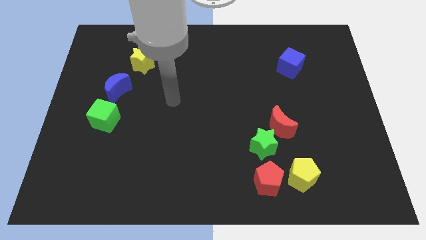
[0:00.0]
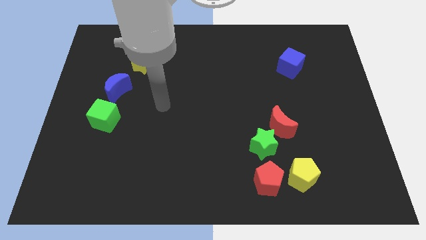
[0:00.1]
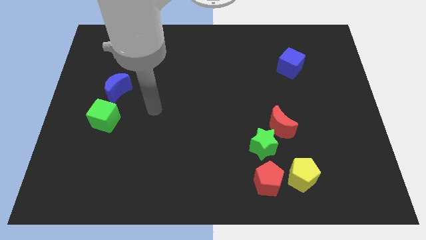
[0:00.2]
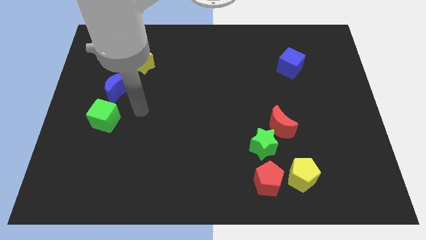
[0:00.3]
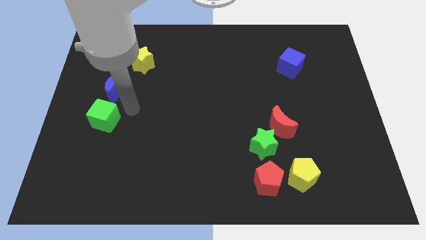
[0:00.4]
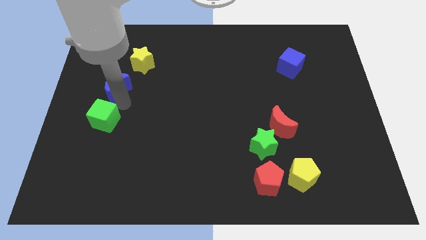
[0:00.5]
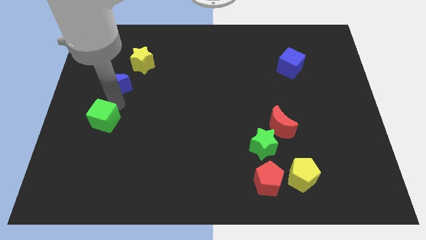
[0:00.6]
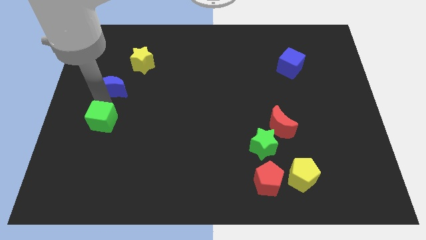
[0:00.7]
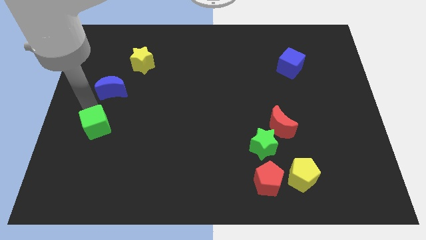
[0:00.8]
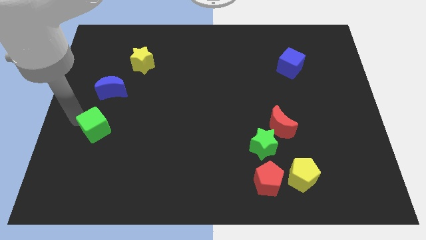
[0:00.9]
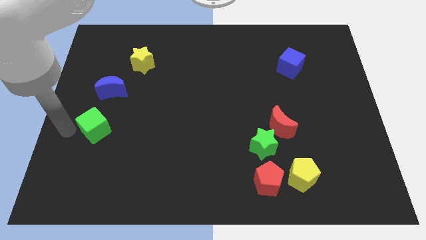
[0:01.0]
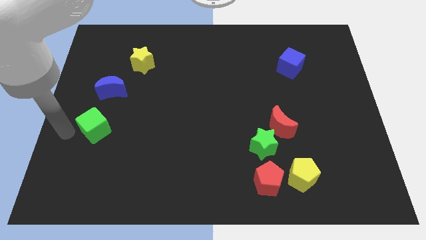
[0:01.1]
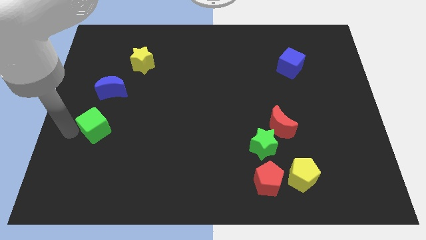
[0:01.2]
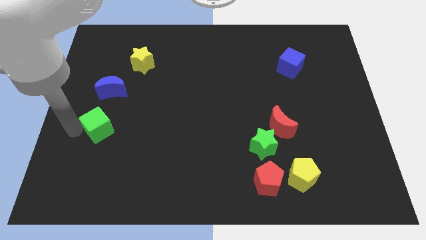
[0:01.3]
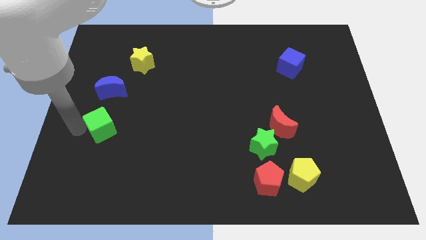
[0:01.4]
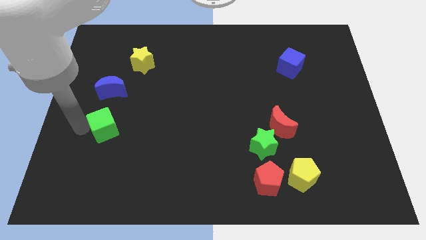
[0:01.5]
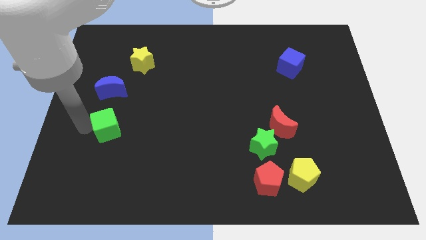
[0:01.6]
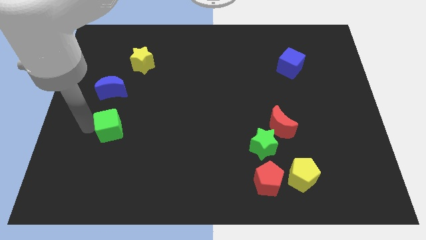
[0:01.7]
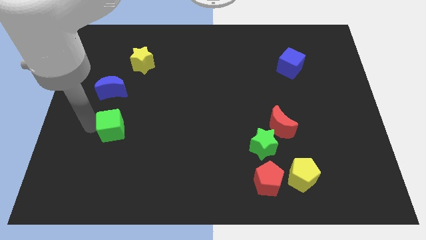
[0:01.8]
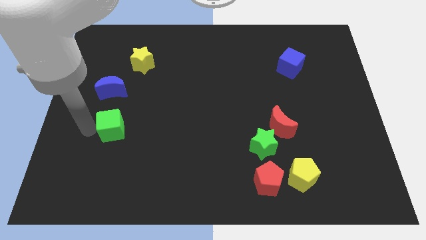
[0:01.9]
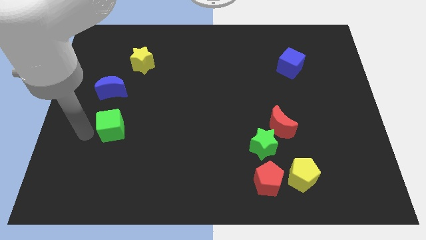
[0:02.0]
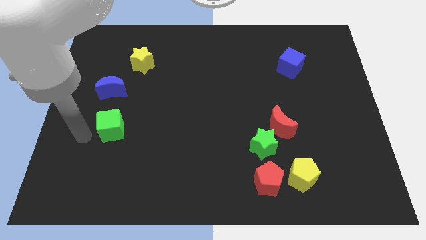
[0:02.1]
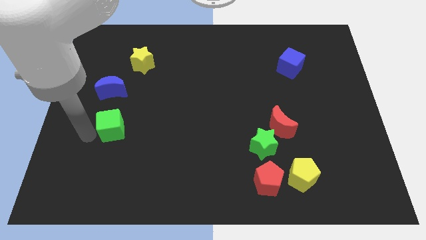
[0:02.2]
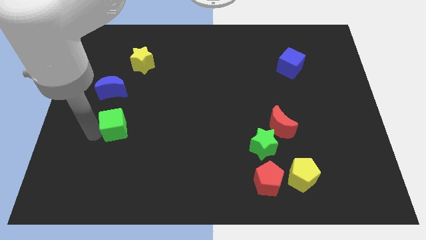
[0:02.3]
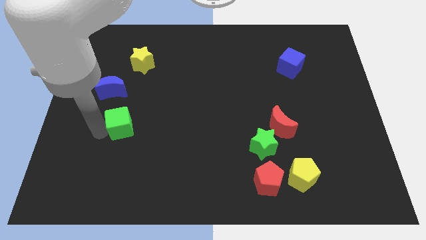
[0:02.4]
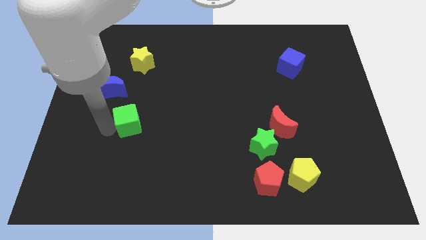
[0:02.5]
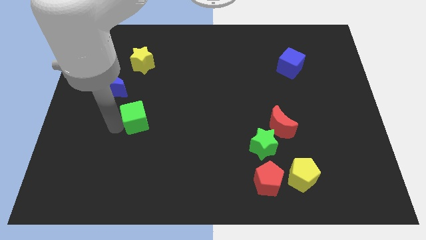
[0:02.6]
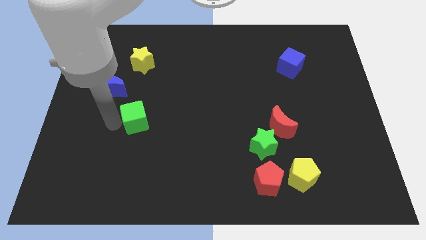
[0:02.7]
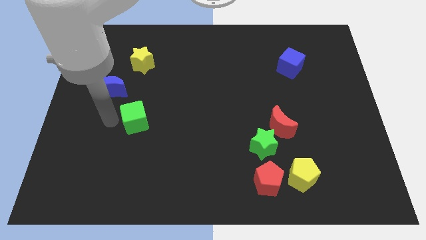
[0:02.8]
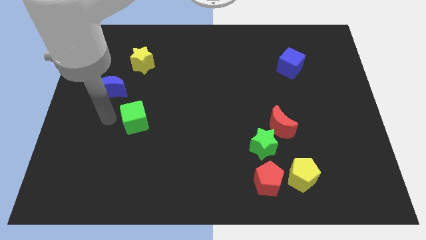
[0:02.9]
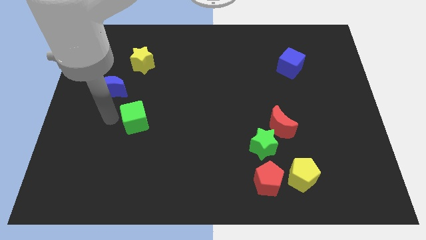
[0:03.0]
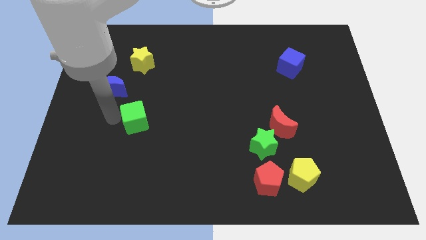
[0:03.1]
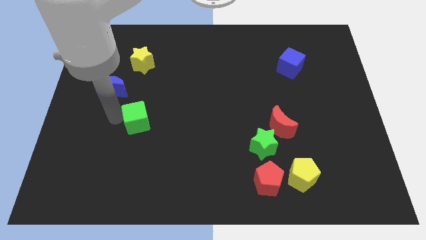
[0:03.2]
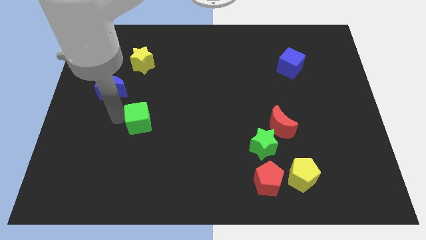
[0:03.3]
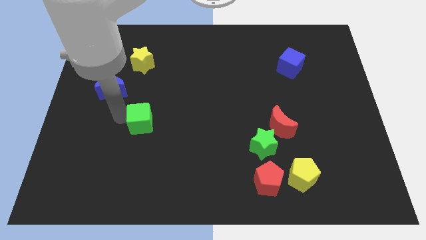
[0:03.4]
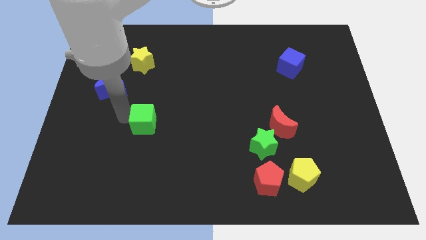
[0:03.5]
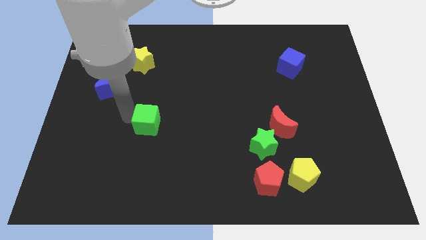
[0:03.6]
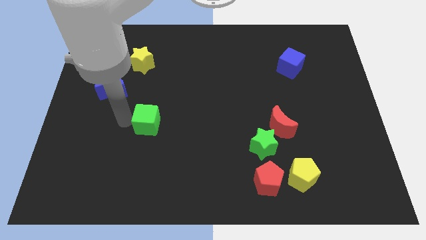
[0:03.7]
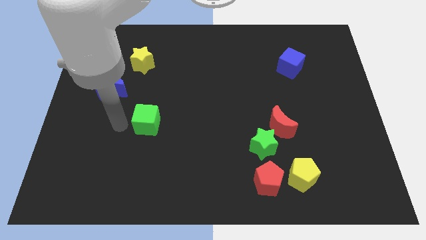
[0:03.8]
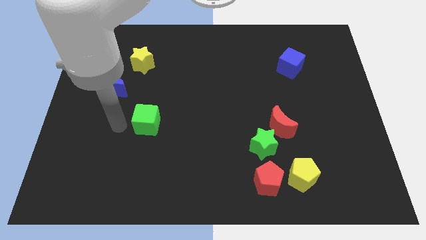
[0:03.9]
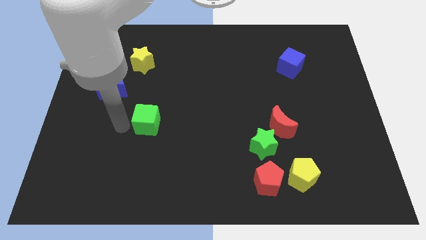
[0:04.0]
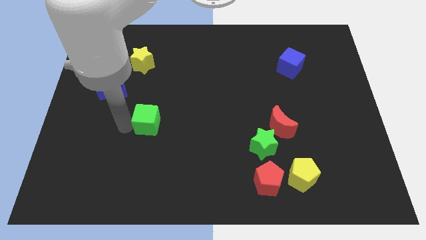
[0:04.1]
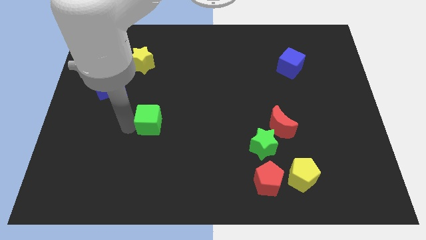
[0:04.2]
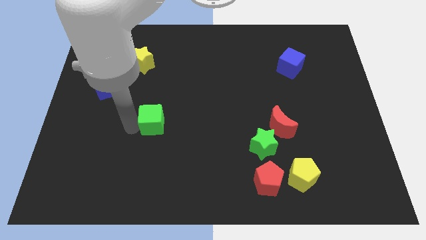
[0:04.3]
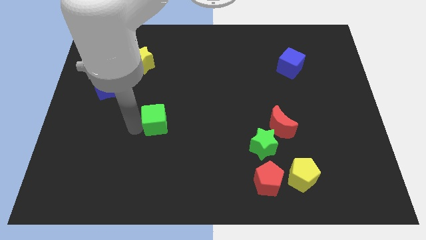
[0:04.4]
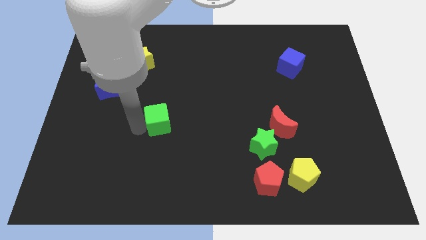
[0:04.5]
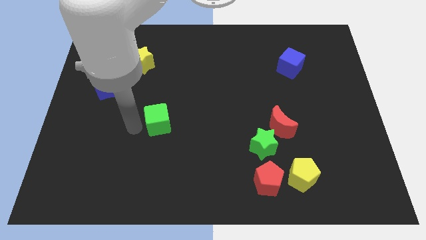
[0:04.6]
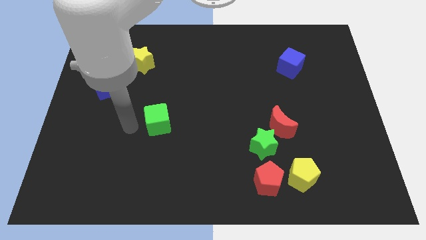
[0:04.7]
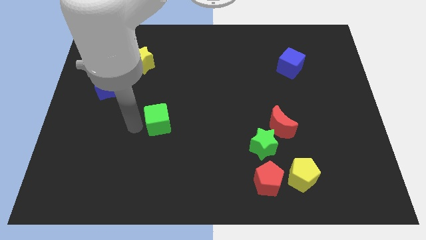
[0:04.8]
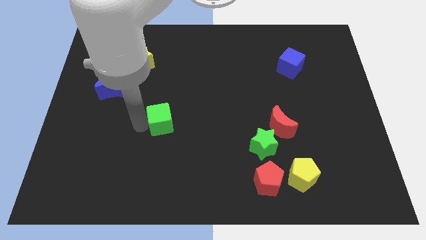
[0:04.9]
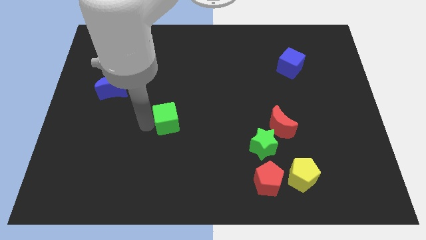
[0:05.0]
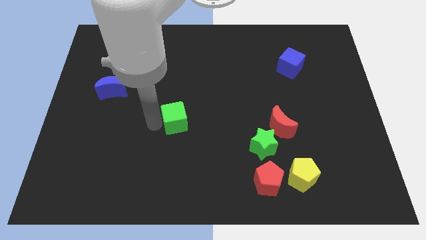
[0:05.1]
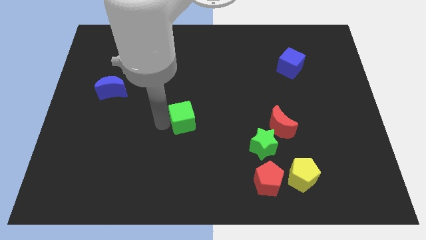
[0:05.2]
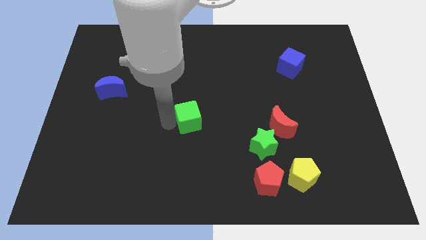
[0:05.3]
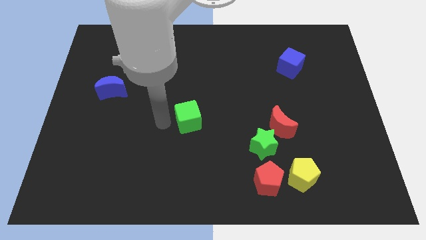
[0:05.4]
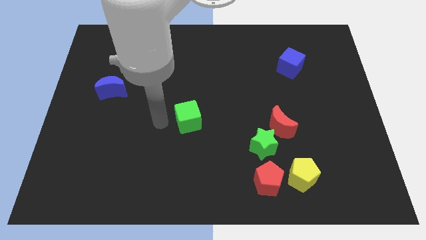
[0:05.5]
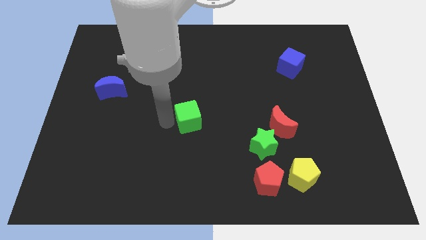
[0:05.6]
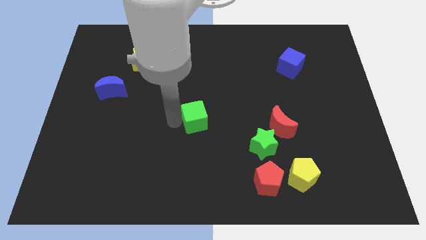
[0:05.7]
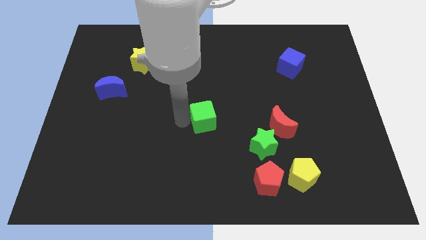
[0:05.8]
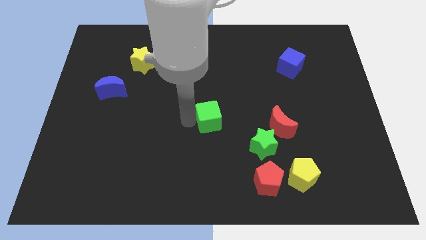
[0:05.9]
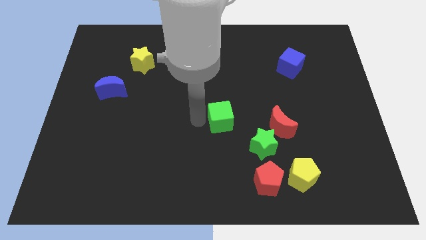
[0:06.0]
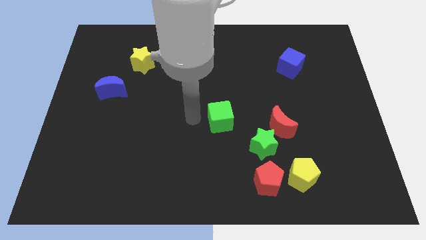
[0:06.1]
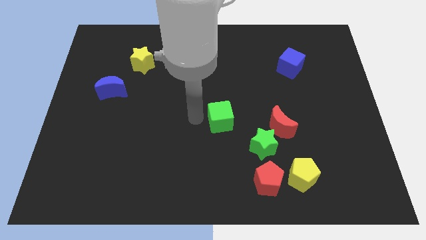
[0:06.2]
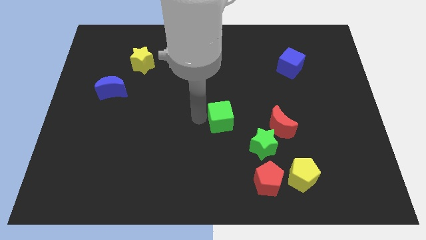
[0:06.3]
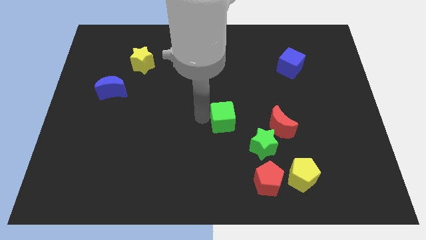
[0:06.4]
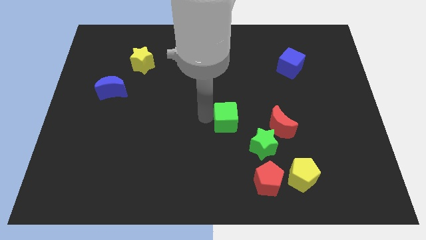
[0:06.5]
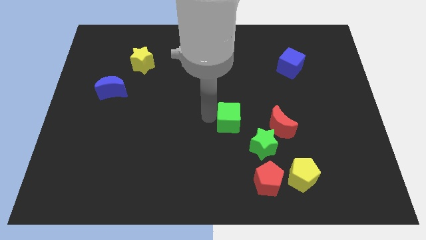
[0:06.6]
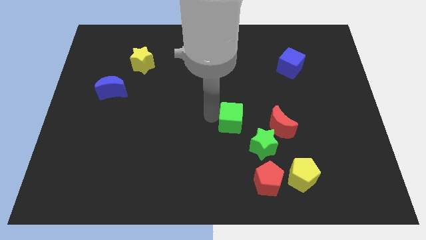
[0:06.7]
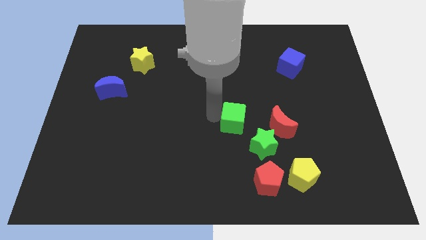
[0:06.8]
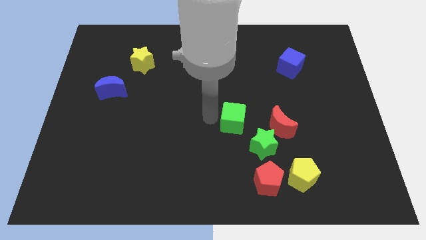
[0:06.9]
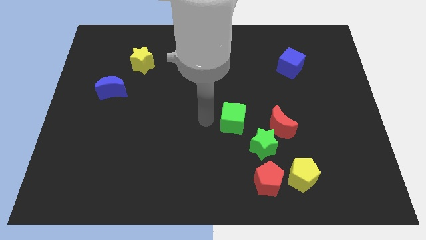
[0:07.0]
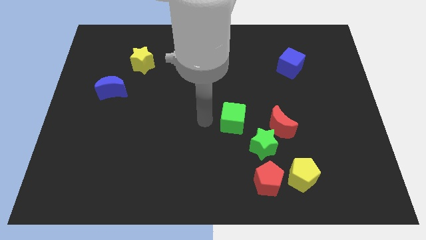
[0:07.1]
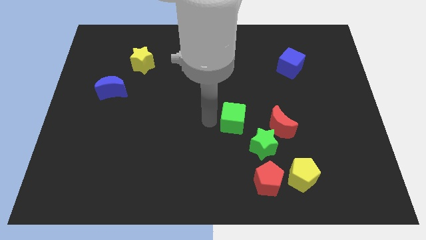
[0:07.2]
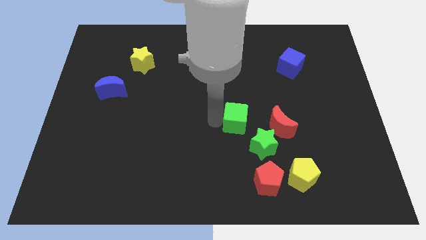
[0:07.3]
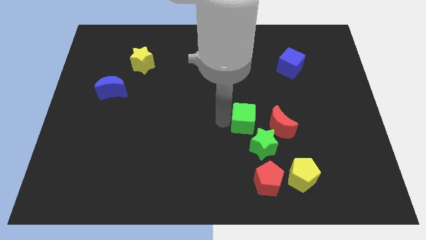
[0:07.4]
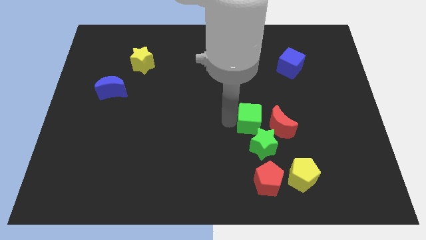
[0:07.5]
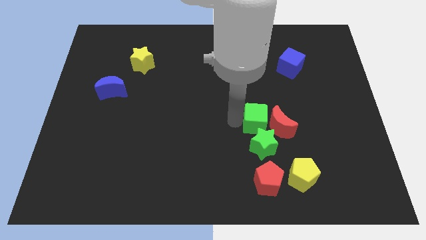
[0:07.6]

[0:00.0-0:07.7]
slide the green cube to the red moon
